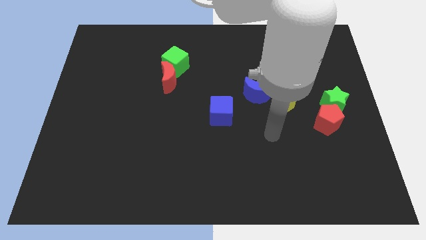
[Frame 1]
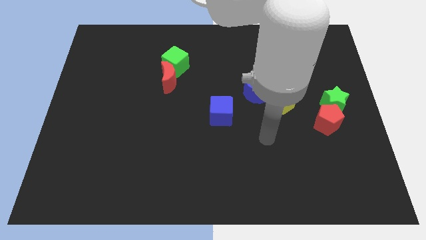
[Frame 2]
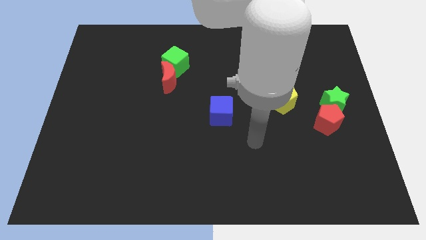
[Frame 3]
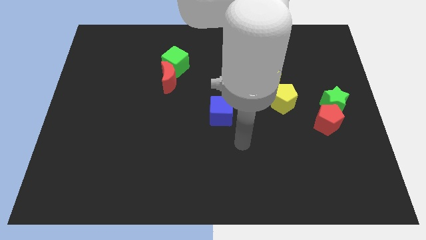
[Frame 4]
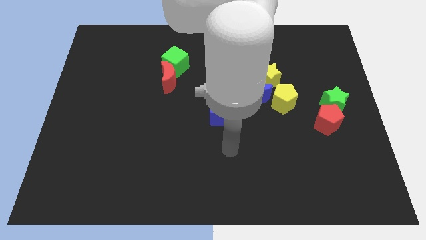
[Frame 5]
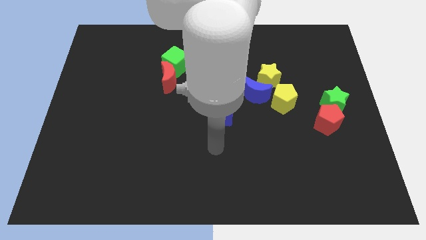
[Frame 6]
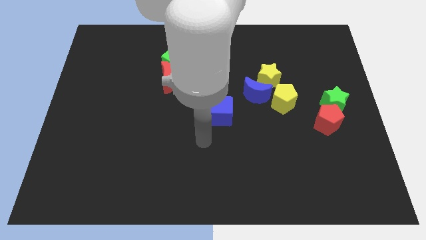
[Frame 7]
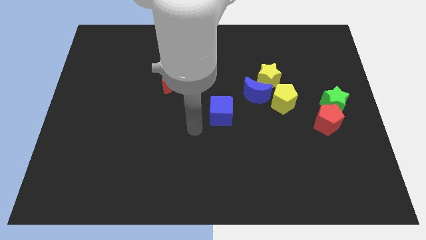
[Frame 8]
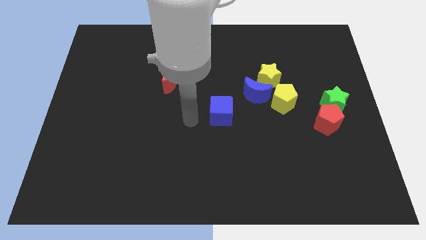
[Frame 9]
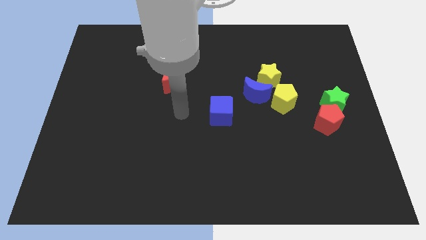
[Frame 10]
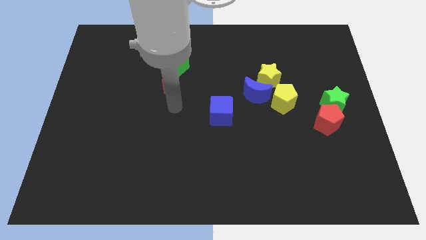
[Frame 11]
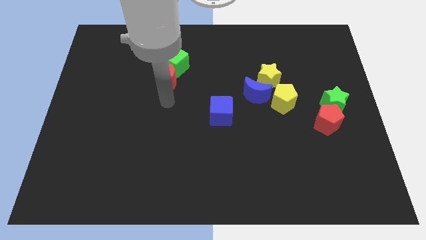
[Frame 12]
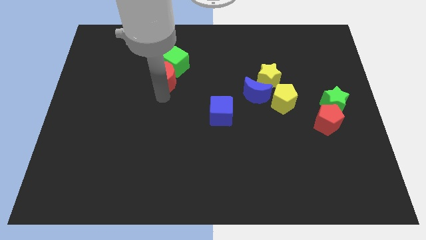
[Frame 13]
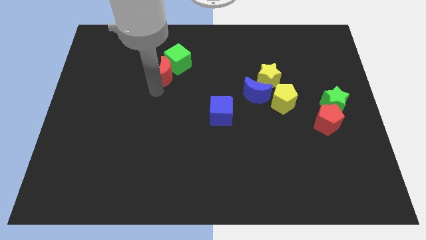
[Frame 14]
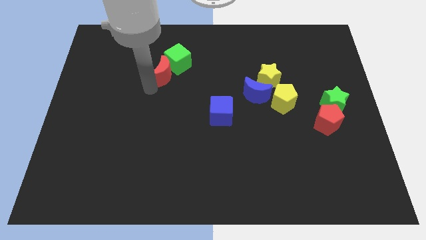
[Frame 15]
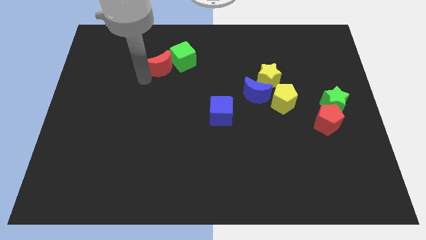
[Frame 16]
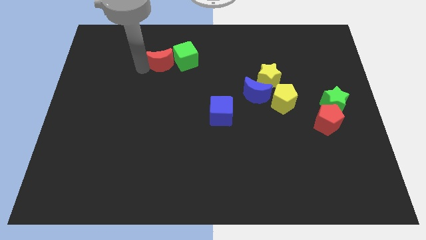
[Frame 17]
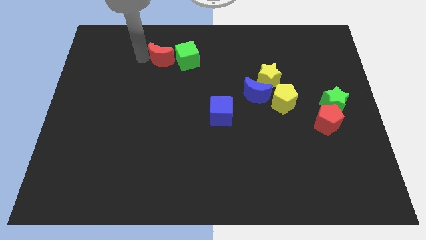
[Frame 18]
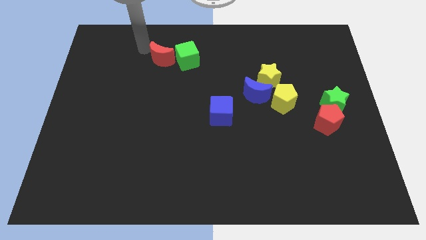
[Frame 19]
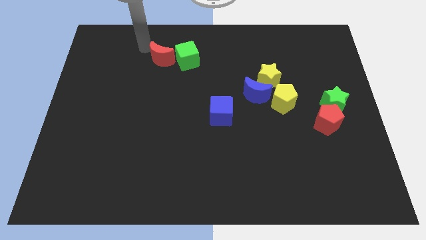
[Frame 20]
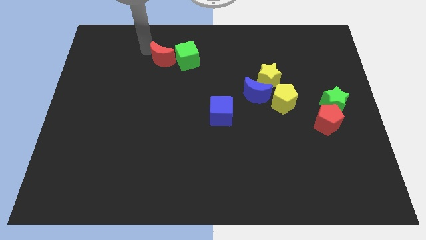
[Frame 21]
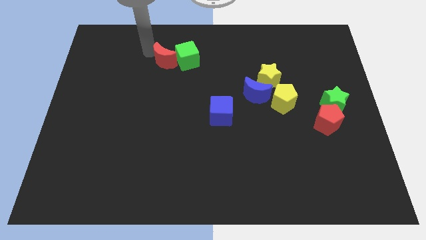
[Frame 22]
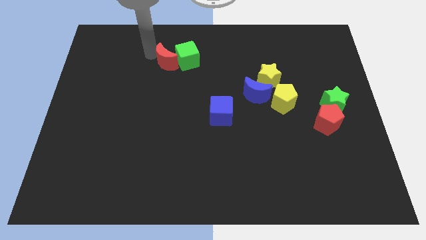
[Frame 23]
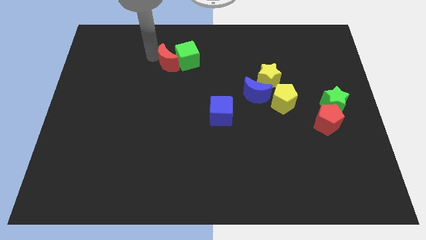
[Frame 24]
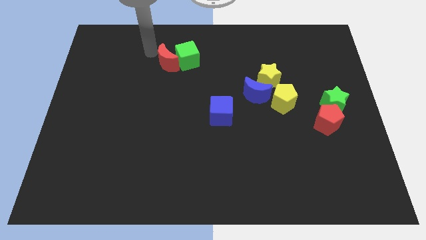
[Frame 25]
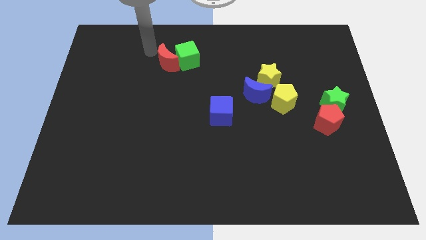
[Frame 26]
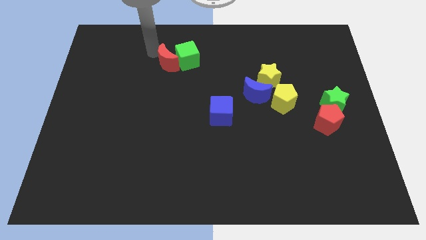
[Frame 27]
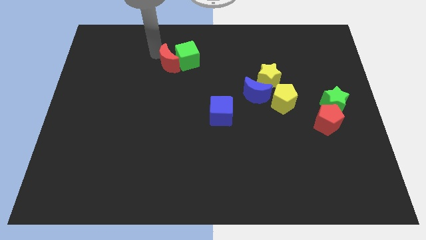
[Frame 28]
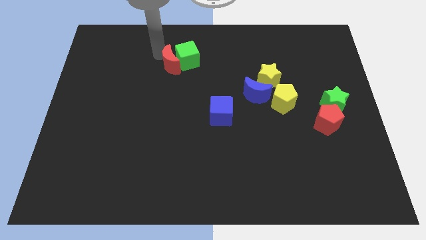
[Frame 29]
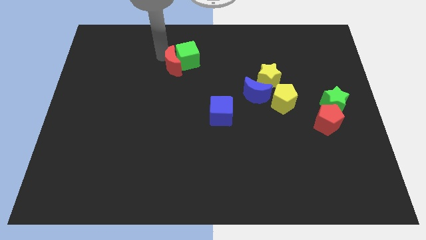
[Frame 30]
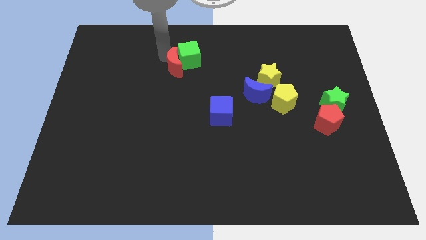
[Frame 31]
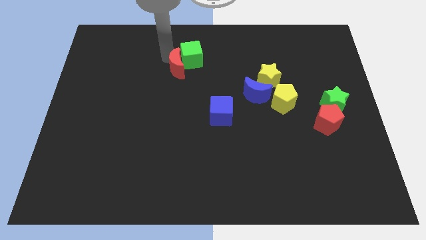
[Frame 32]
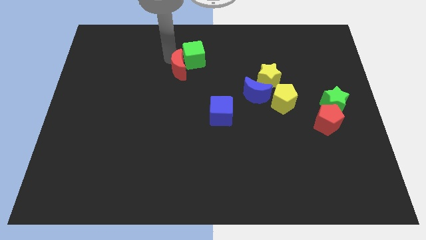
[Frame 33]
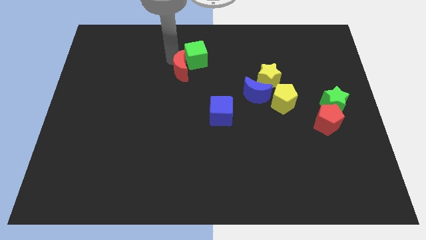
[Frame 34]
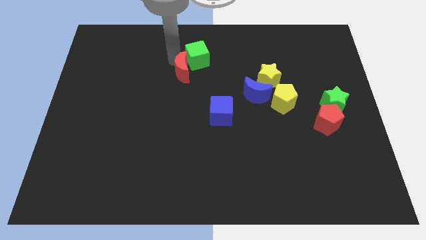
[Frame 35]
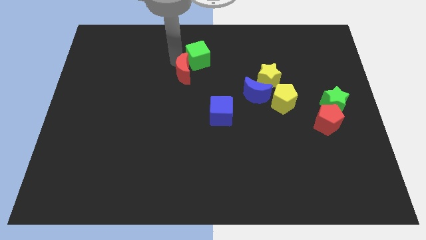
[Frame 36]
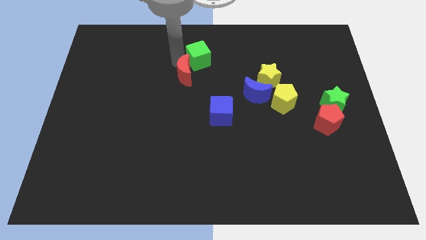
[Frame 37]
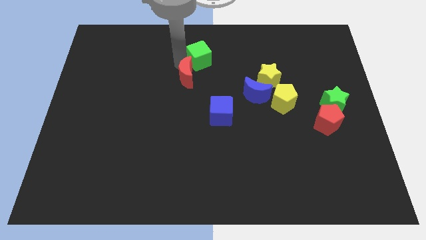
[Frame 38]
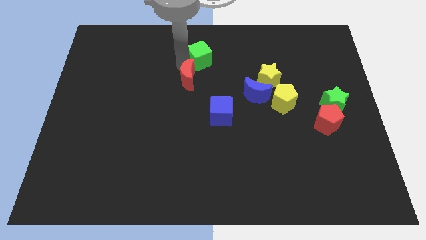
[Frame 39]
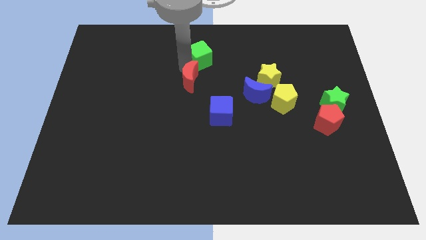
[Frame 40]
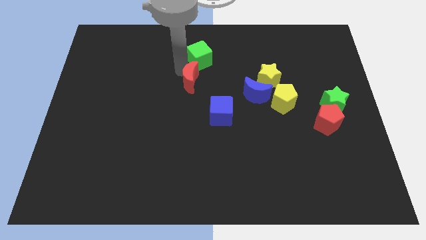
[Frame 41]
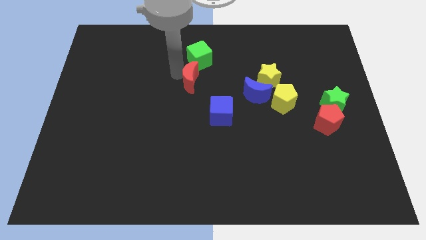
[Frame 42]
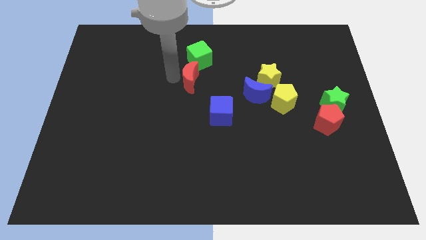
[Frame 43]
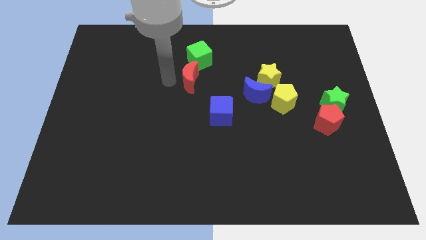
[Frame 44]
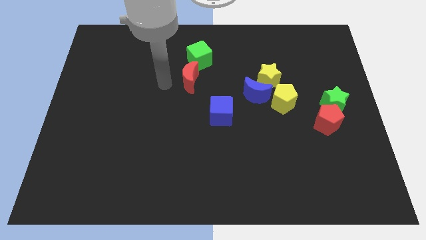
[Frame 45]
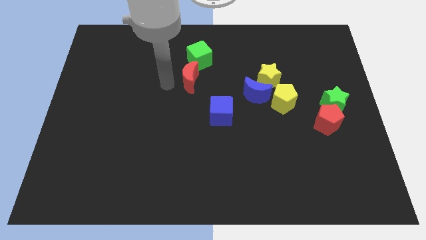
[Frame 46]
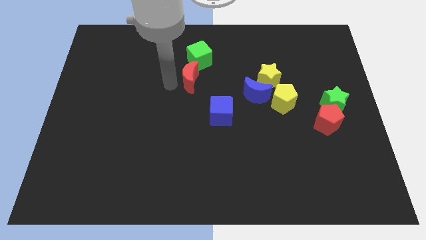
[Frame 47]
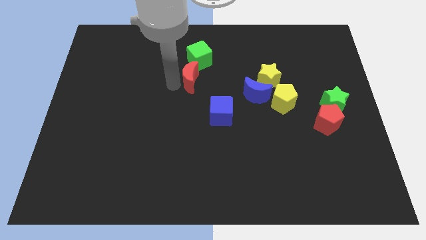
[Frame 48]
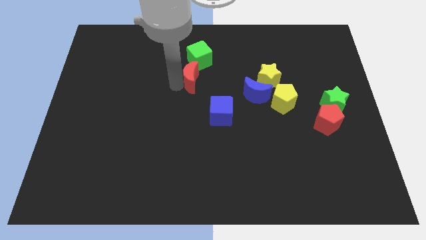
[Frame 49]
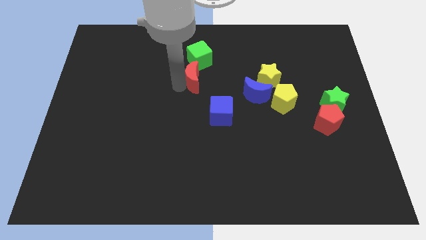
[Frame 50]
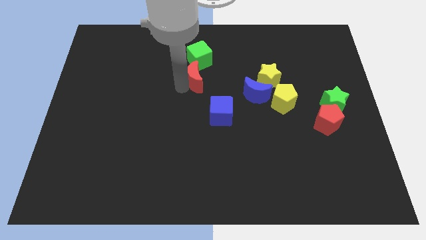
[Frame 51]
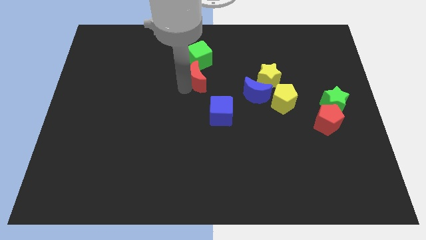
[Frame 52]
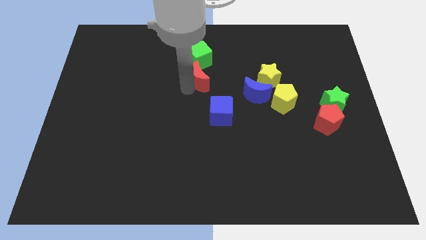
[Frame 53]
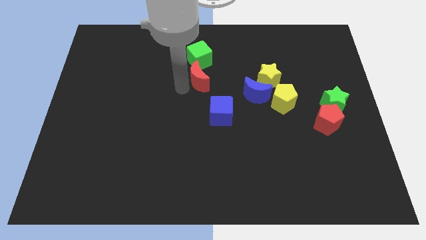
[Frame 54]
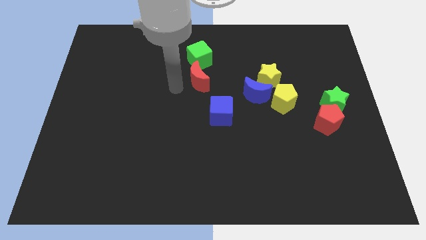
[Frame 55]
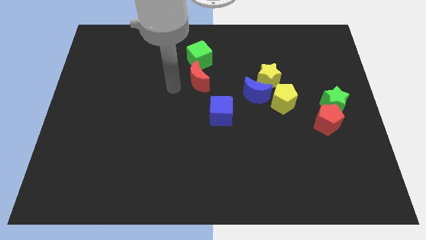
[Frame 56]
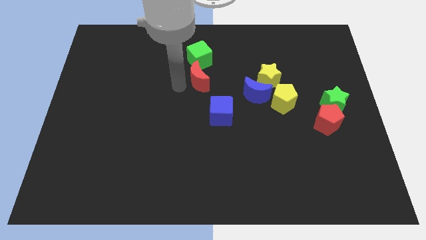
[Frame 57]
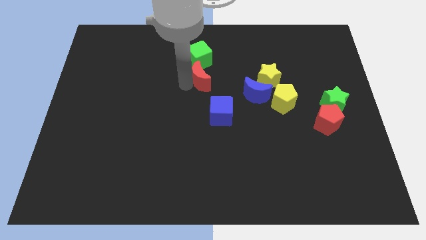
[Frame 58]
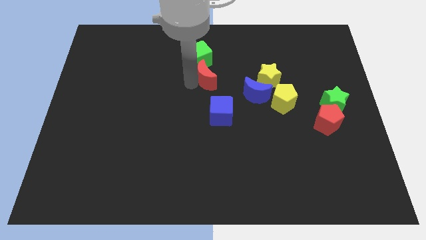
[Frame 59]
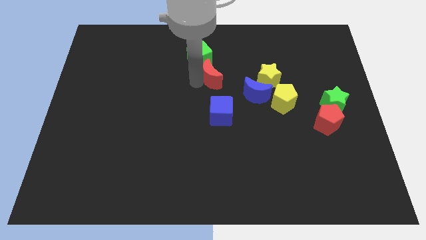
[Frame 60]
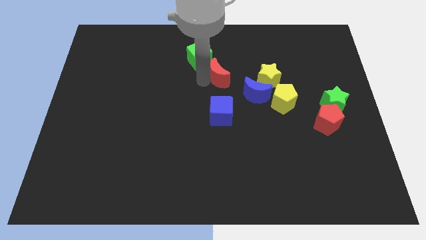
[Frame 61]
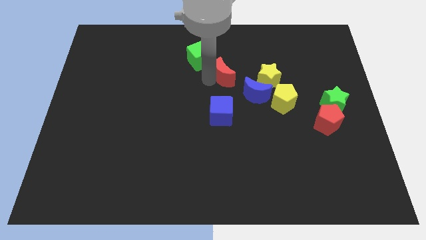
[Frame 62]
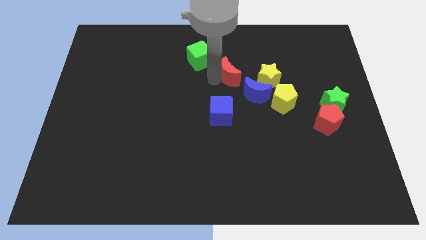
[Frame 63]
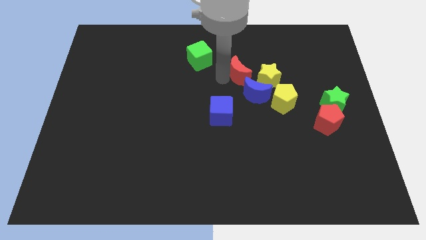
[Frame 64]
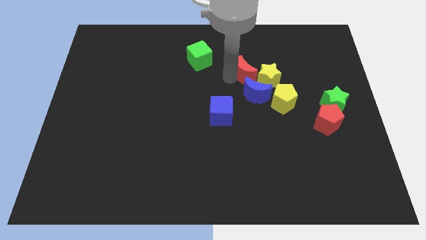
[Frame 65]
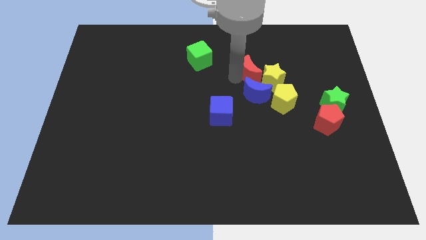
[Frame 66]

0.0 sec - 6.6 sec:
slide the red moon to the right

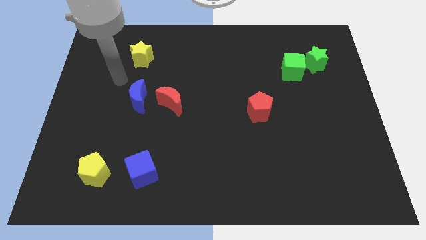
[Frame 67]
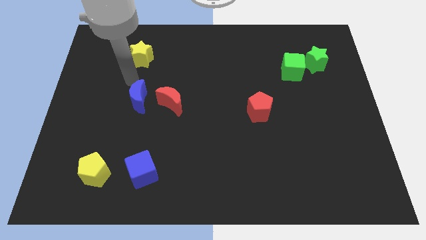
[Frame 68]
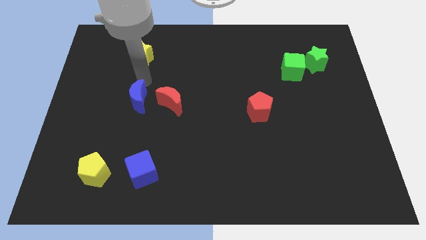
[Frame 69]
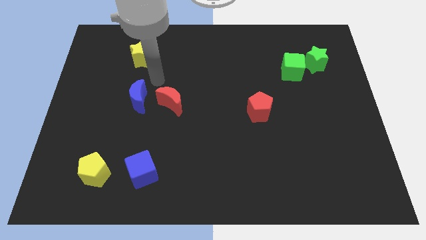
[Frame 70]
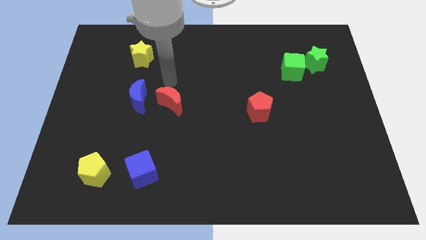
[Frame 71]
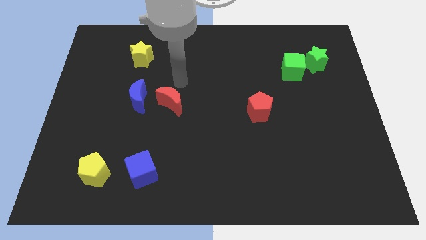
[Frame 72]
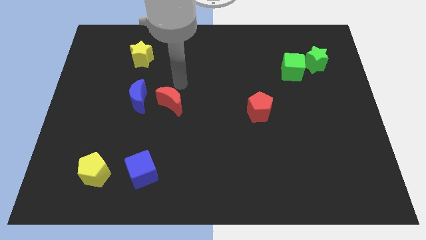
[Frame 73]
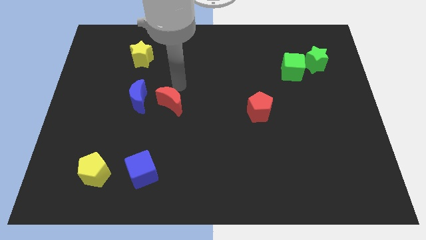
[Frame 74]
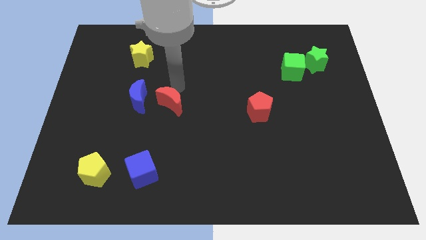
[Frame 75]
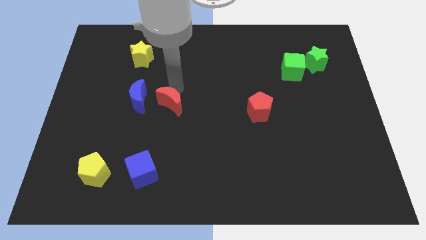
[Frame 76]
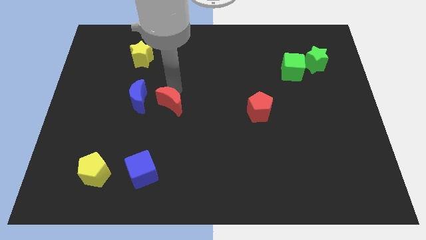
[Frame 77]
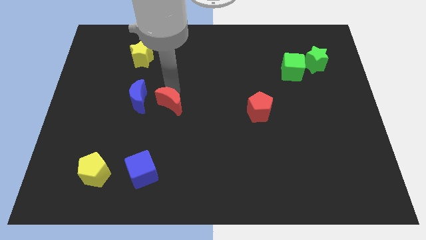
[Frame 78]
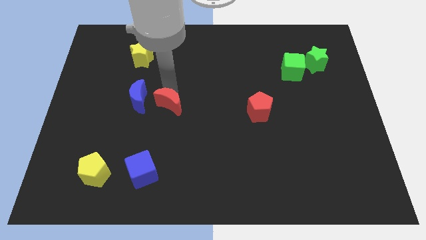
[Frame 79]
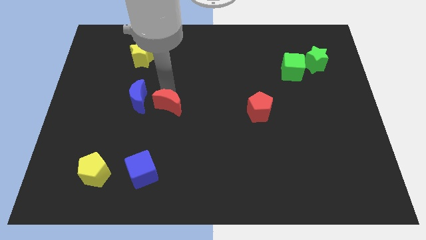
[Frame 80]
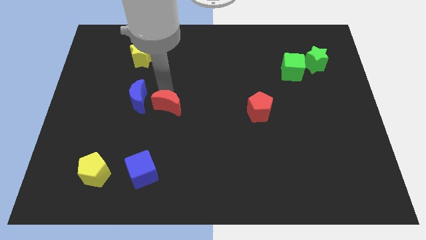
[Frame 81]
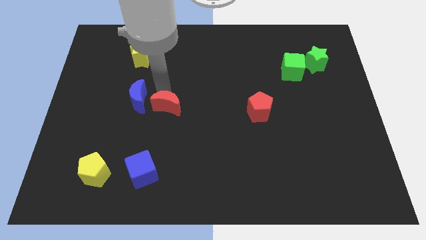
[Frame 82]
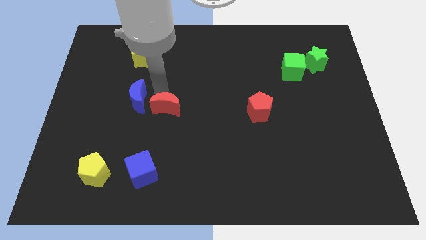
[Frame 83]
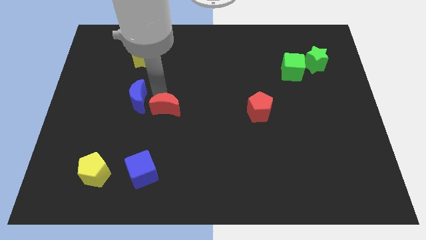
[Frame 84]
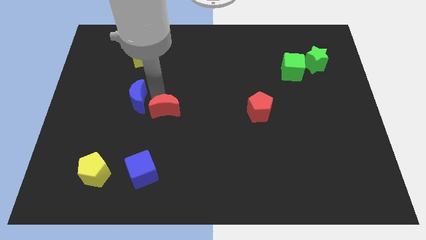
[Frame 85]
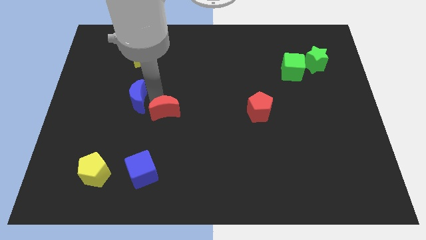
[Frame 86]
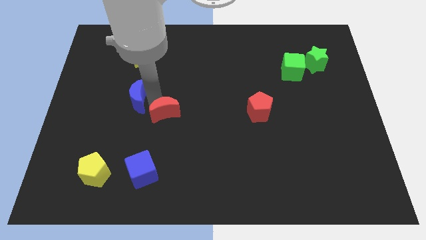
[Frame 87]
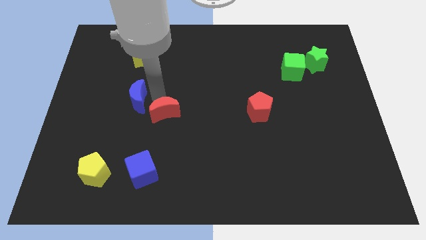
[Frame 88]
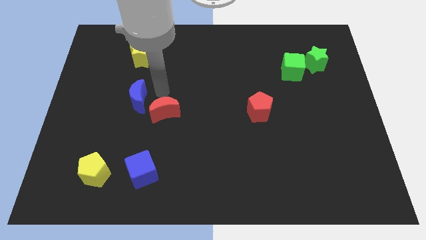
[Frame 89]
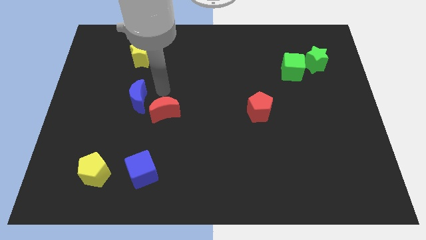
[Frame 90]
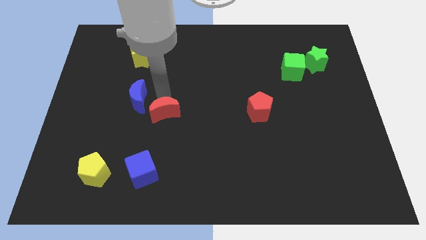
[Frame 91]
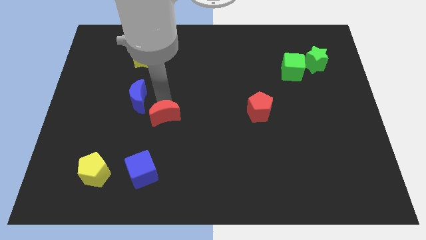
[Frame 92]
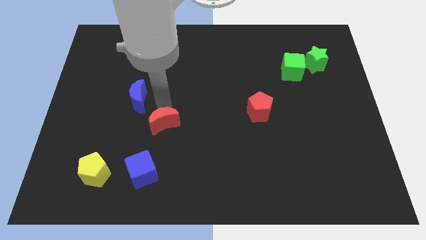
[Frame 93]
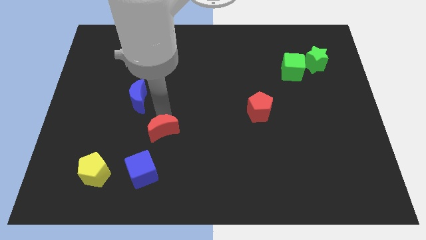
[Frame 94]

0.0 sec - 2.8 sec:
slide the red moon a little bit downwards
